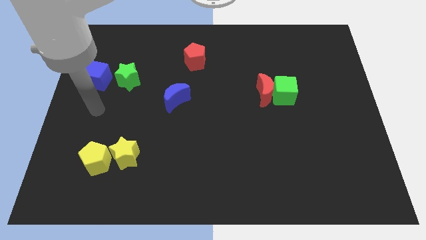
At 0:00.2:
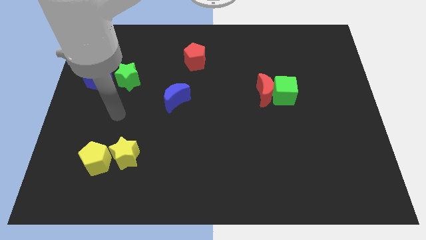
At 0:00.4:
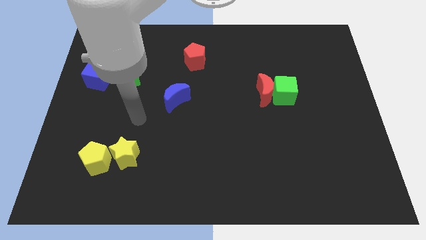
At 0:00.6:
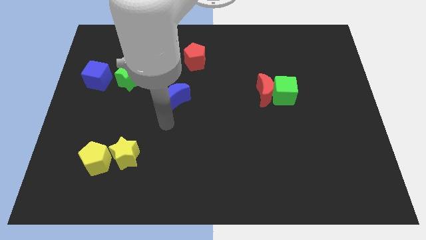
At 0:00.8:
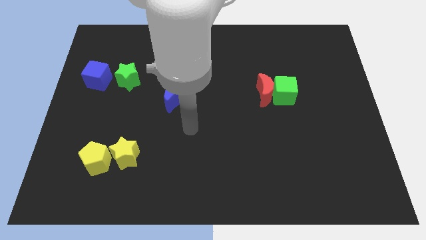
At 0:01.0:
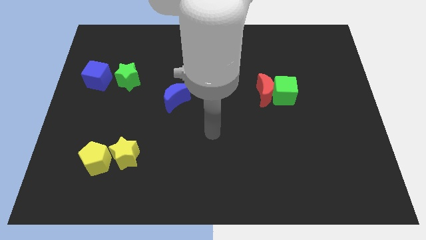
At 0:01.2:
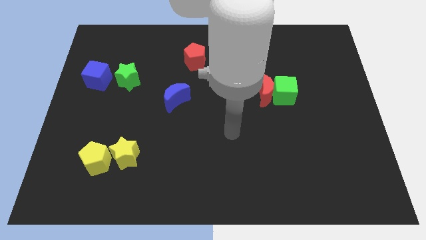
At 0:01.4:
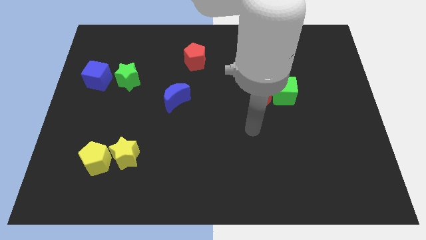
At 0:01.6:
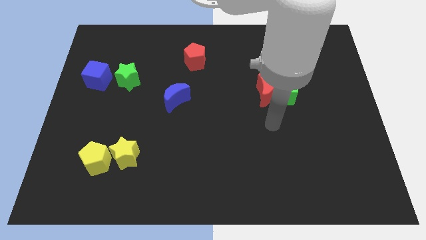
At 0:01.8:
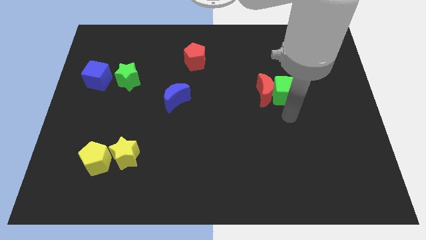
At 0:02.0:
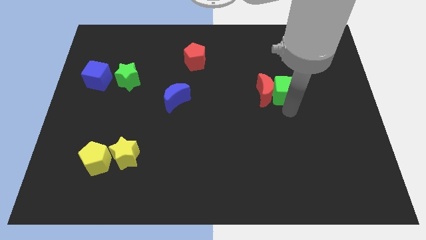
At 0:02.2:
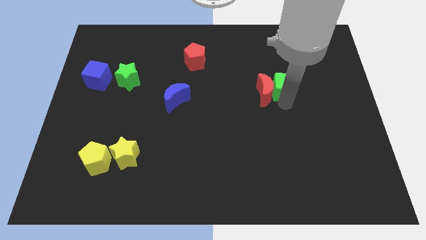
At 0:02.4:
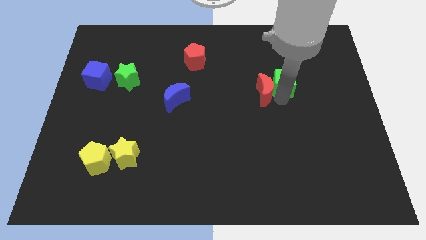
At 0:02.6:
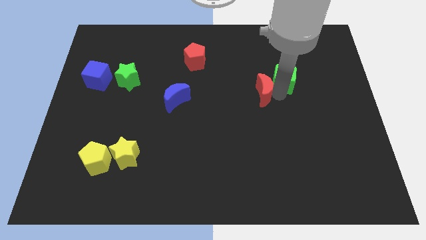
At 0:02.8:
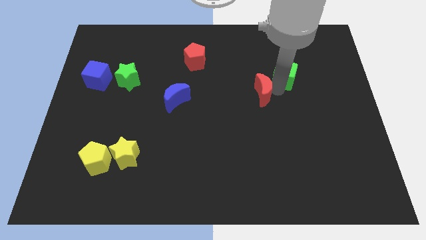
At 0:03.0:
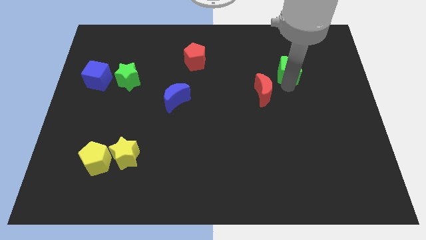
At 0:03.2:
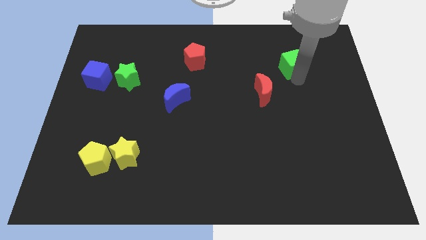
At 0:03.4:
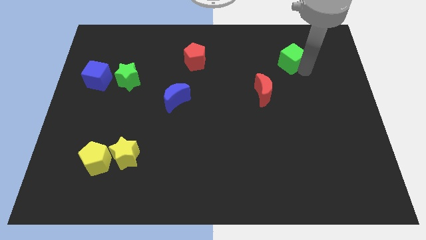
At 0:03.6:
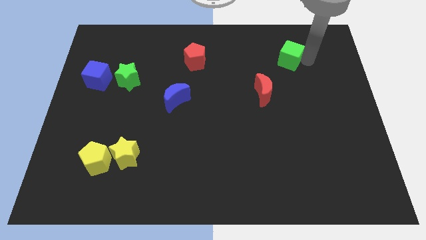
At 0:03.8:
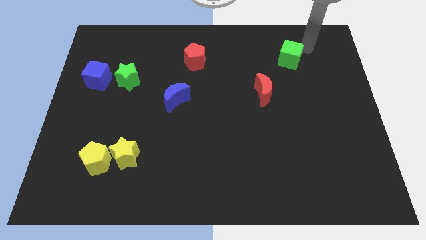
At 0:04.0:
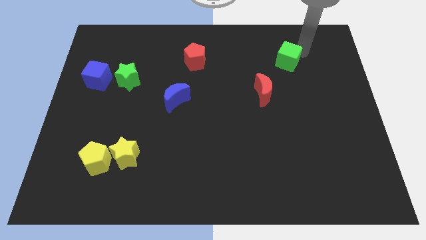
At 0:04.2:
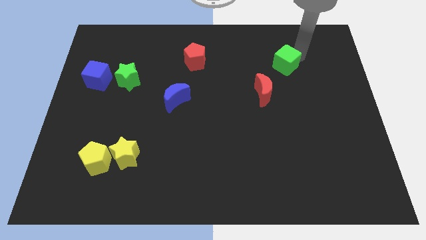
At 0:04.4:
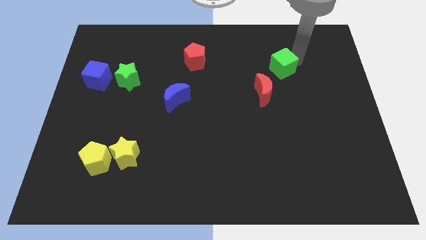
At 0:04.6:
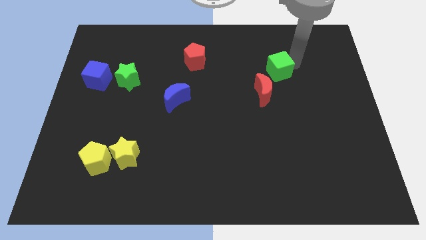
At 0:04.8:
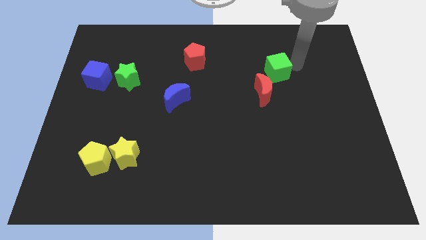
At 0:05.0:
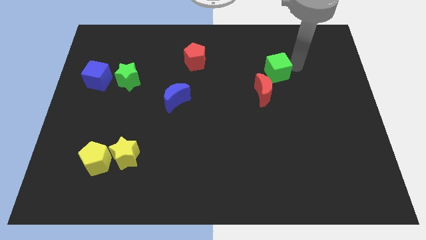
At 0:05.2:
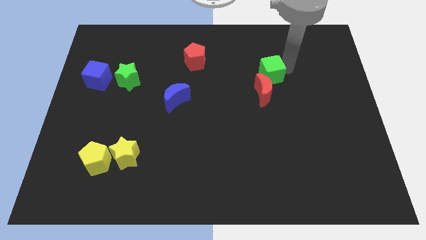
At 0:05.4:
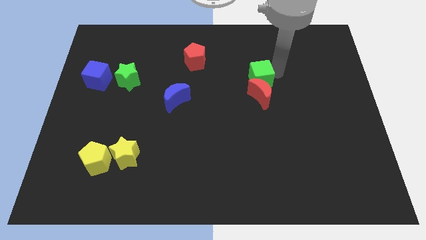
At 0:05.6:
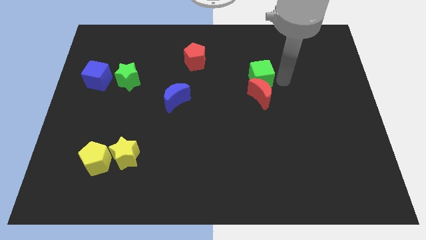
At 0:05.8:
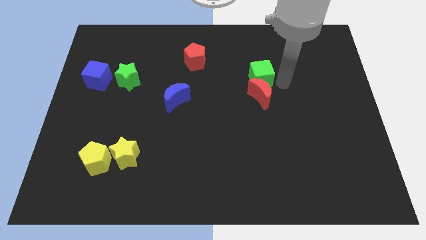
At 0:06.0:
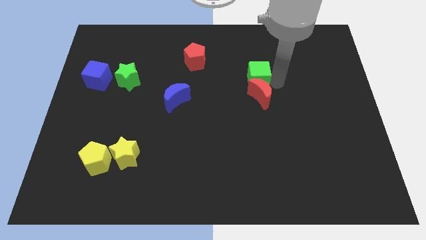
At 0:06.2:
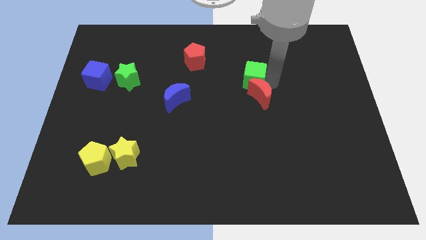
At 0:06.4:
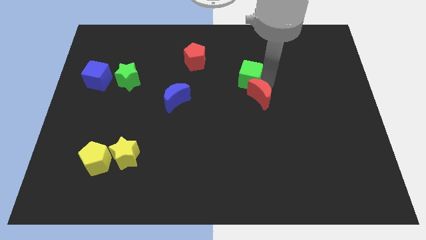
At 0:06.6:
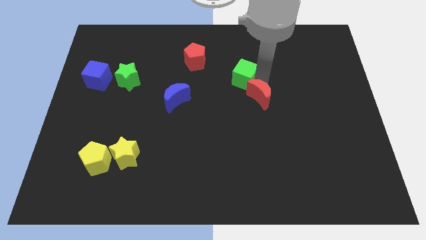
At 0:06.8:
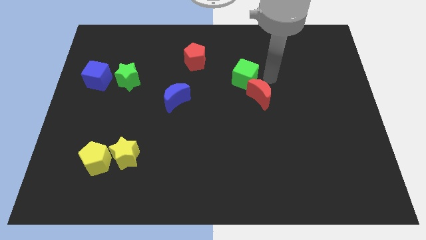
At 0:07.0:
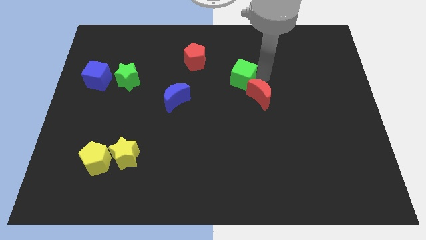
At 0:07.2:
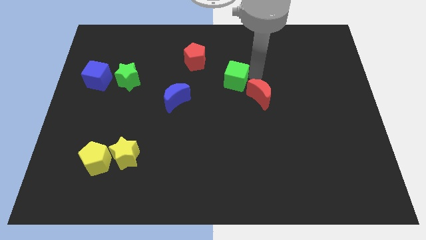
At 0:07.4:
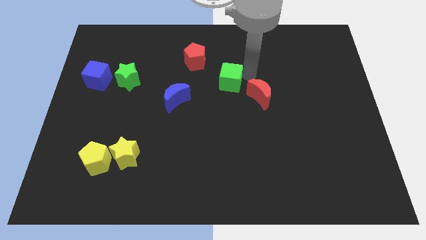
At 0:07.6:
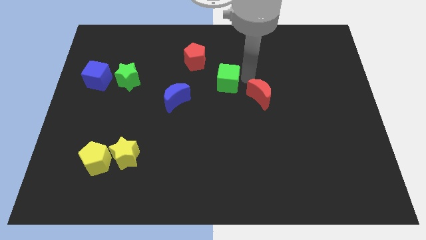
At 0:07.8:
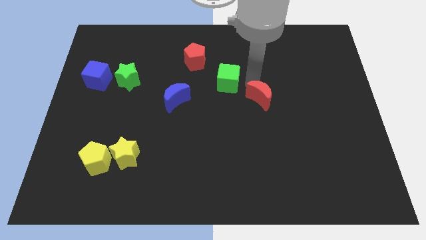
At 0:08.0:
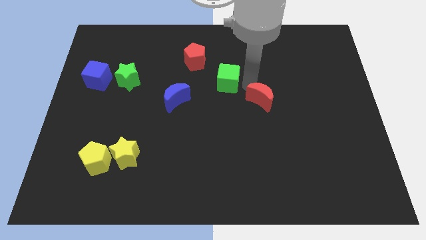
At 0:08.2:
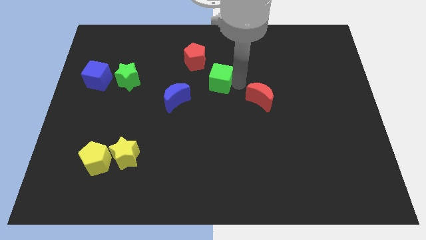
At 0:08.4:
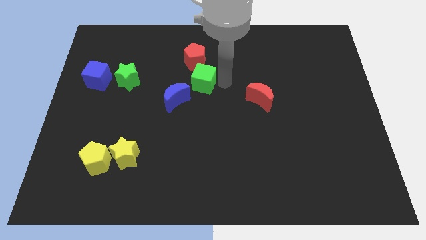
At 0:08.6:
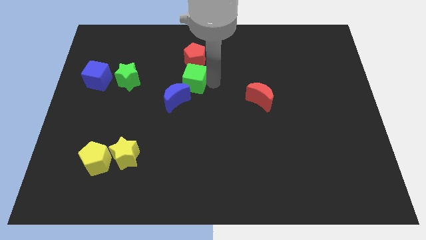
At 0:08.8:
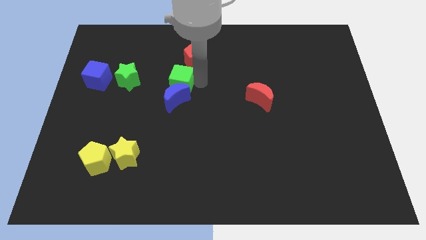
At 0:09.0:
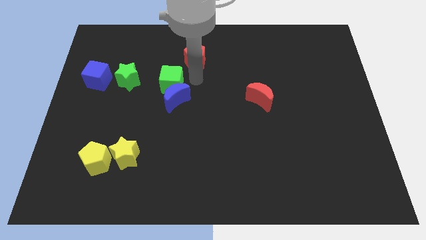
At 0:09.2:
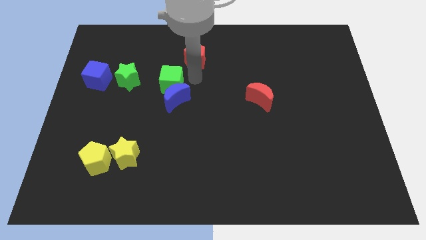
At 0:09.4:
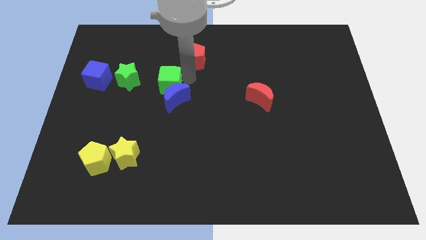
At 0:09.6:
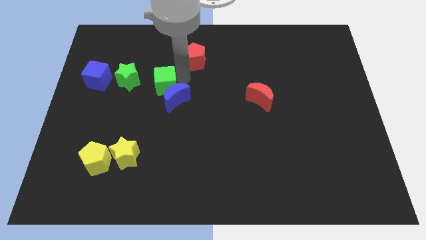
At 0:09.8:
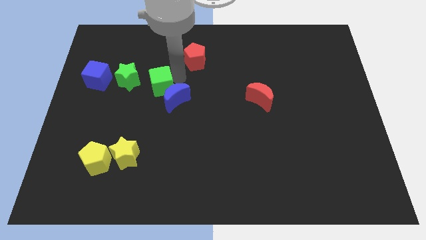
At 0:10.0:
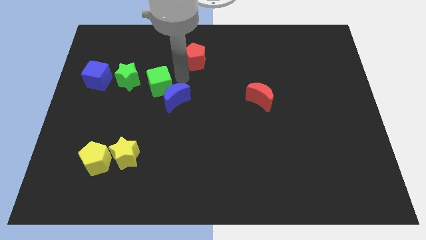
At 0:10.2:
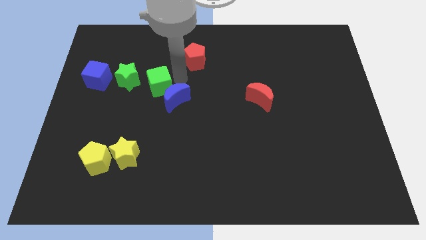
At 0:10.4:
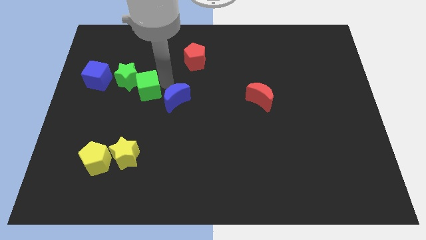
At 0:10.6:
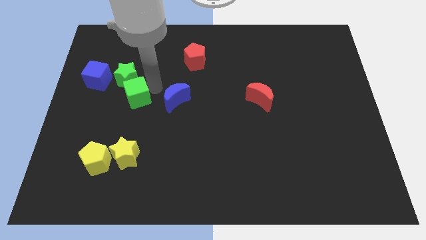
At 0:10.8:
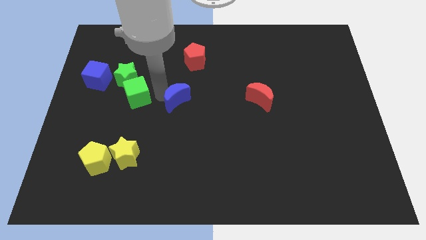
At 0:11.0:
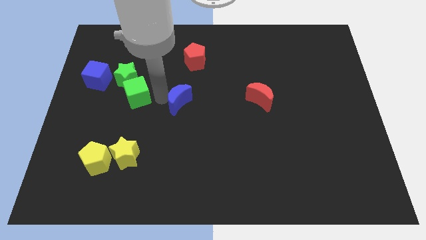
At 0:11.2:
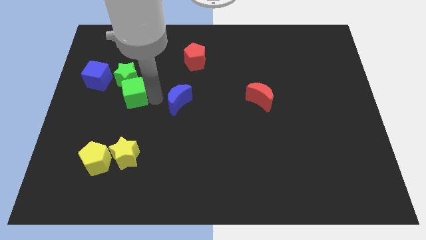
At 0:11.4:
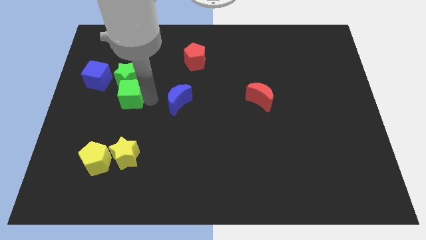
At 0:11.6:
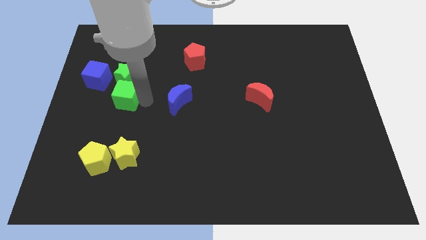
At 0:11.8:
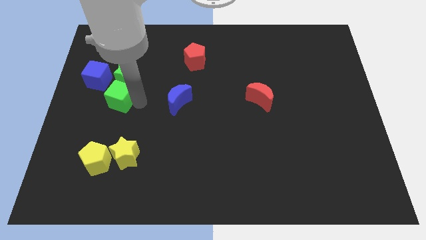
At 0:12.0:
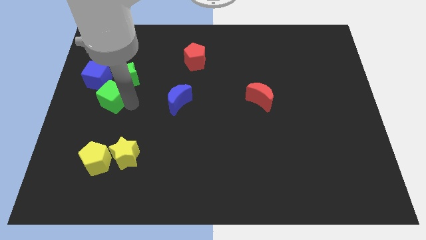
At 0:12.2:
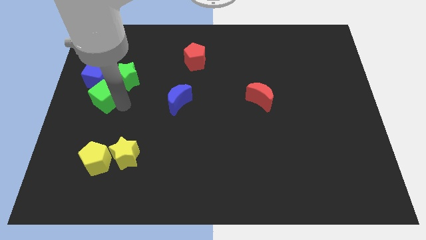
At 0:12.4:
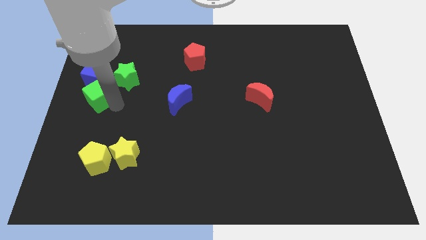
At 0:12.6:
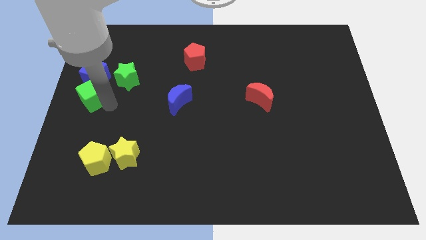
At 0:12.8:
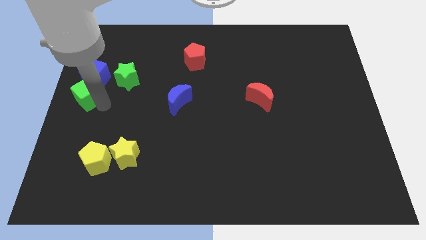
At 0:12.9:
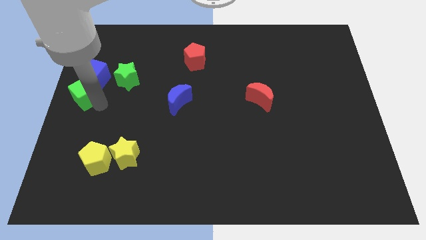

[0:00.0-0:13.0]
slide the green cube next to the blue cube

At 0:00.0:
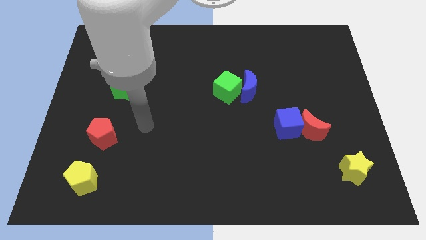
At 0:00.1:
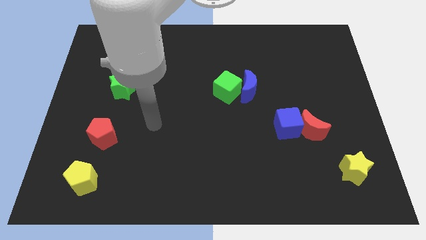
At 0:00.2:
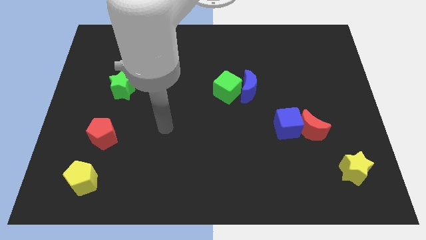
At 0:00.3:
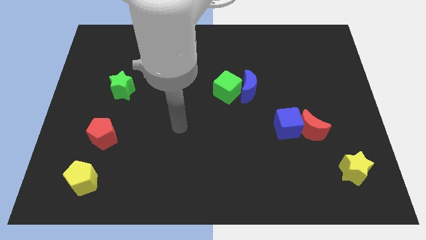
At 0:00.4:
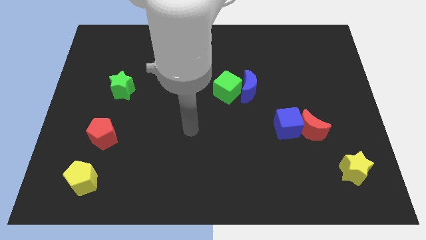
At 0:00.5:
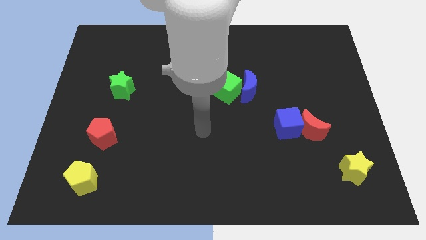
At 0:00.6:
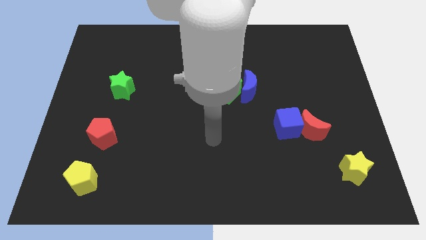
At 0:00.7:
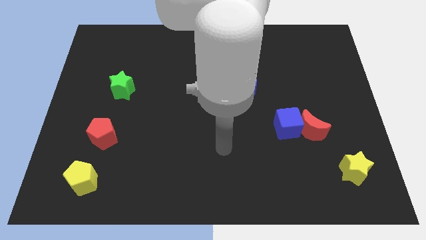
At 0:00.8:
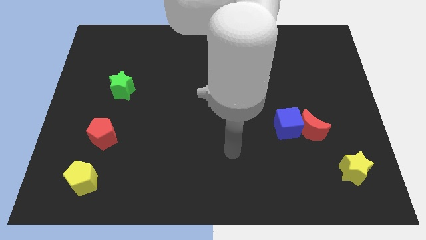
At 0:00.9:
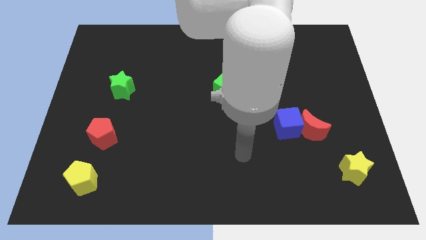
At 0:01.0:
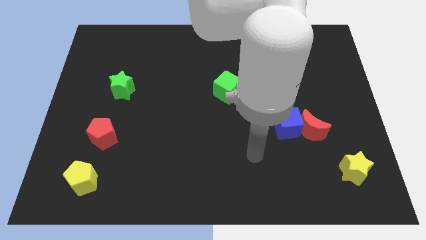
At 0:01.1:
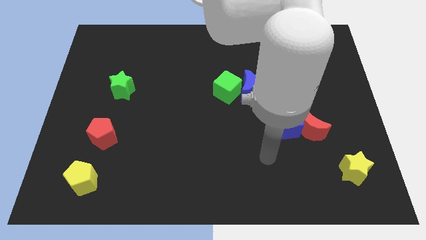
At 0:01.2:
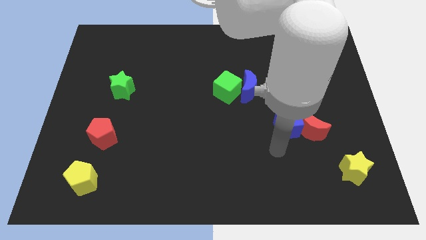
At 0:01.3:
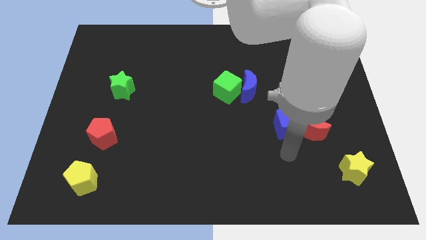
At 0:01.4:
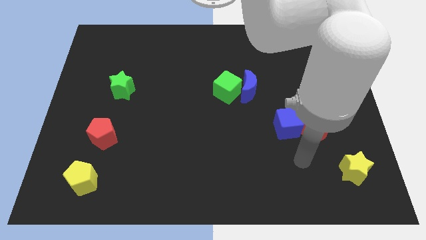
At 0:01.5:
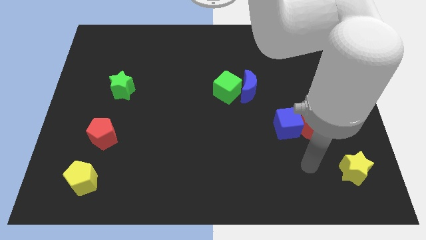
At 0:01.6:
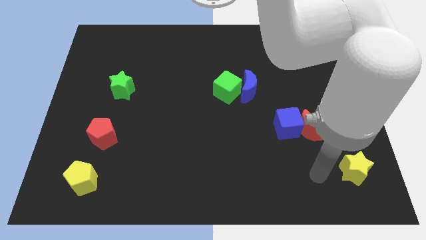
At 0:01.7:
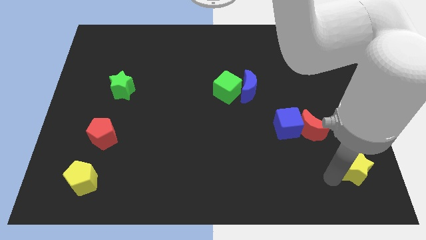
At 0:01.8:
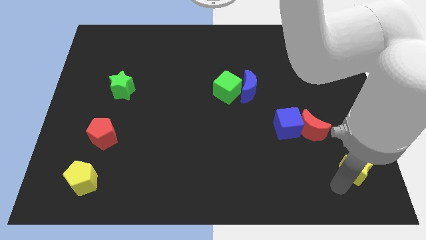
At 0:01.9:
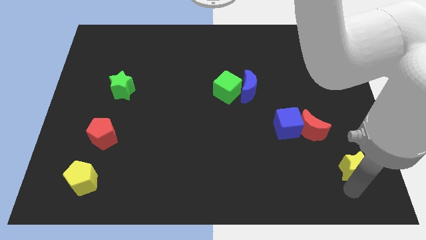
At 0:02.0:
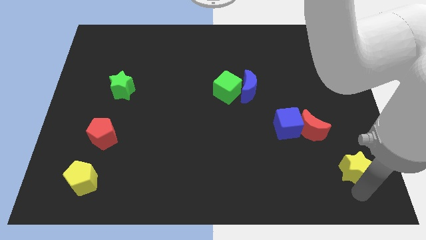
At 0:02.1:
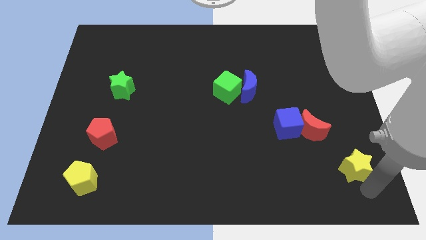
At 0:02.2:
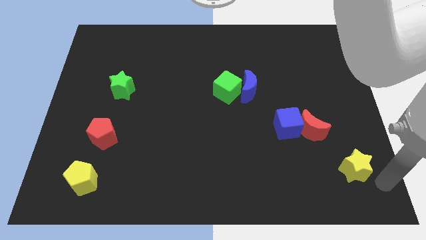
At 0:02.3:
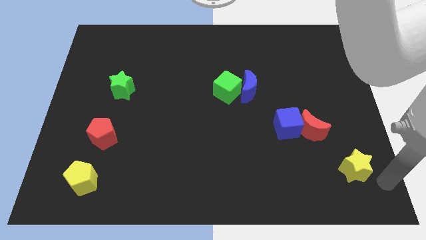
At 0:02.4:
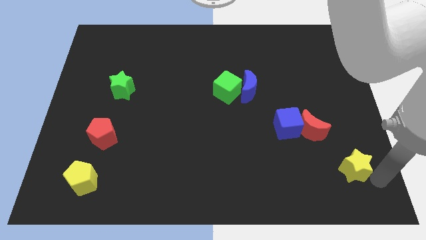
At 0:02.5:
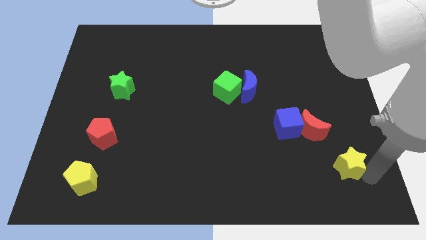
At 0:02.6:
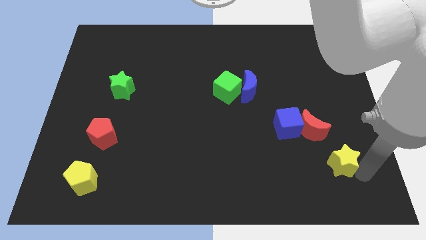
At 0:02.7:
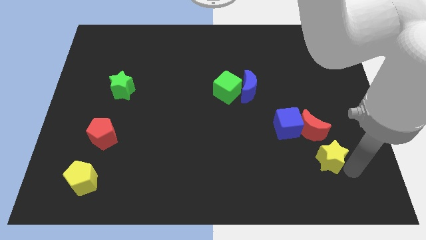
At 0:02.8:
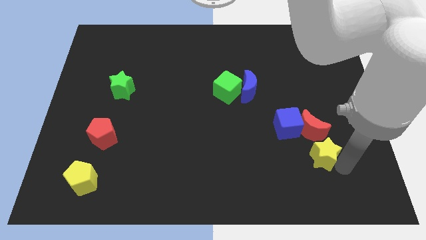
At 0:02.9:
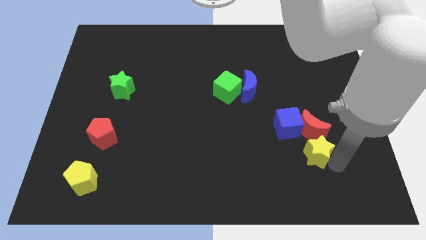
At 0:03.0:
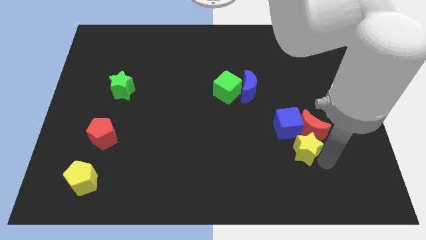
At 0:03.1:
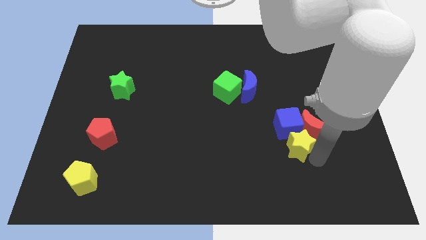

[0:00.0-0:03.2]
push the yellow star to the blue cube
